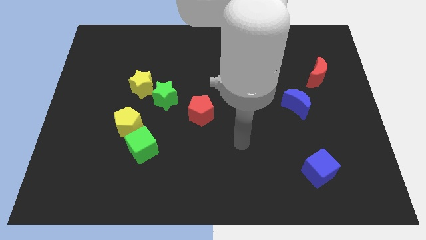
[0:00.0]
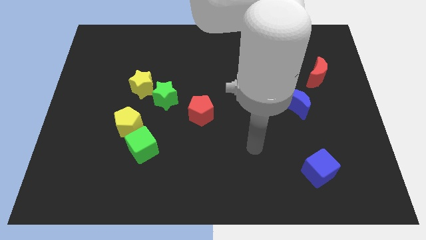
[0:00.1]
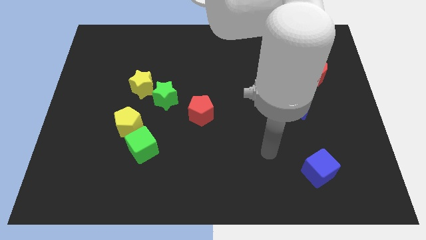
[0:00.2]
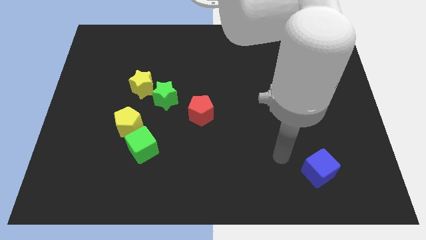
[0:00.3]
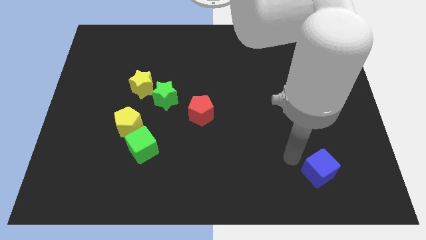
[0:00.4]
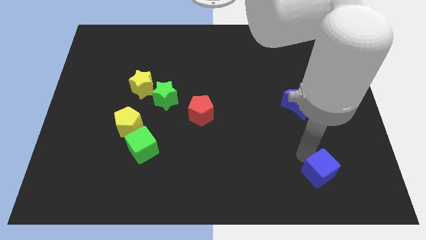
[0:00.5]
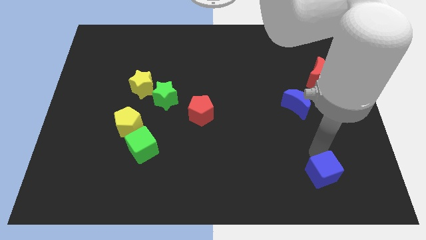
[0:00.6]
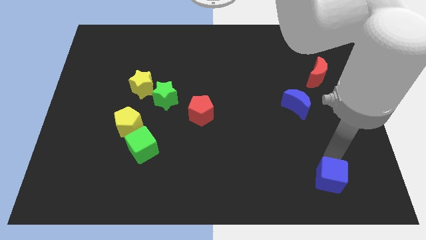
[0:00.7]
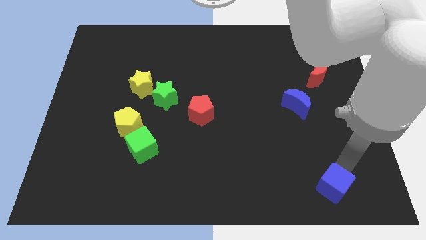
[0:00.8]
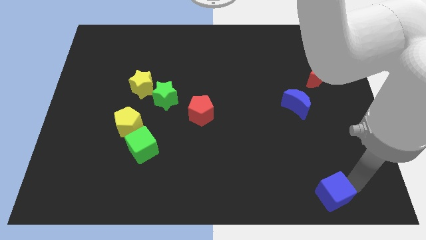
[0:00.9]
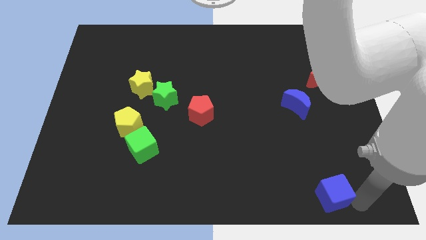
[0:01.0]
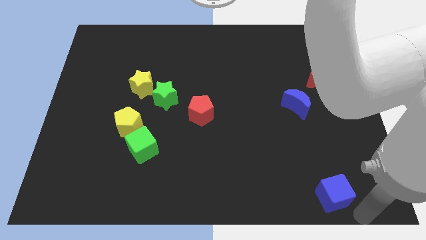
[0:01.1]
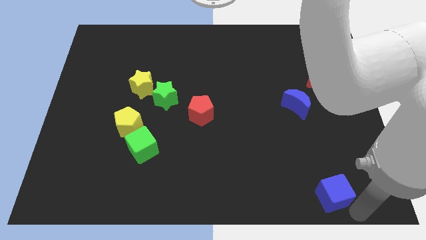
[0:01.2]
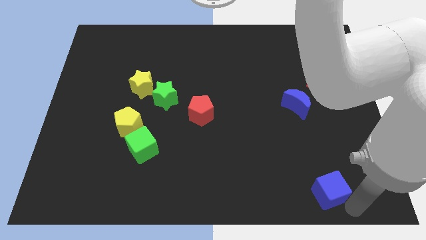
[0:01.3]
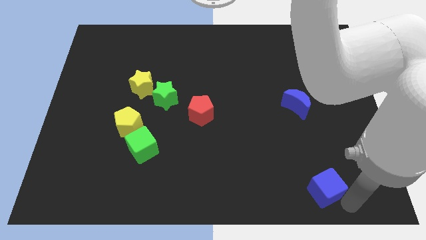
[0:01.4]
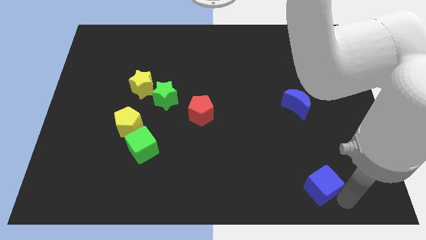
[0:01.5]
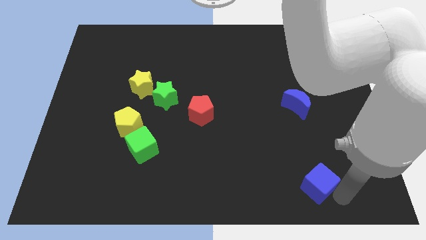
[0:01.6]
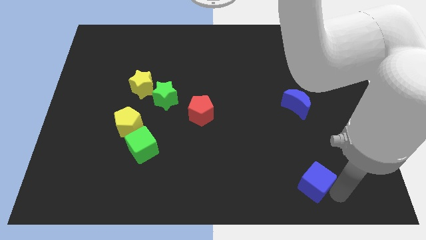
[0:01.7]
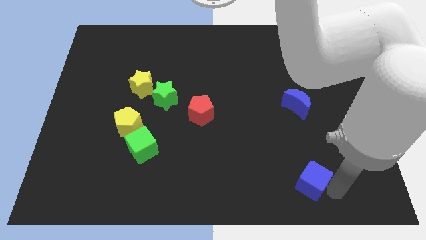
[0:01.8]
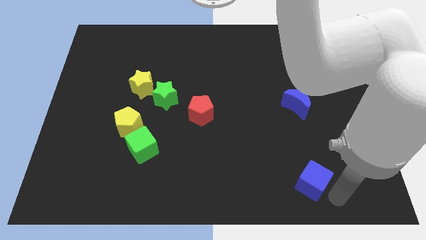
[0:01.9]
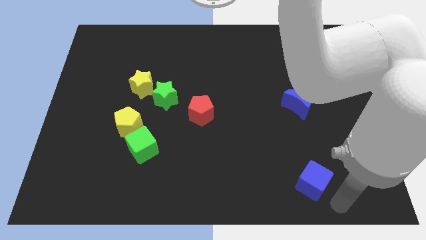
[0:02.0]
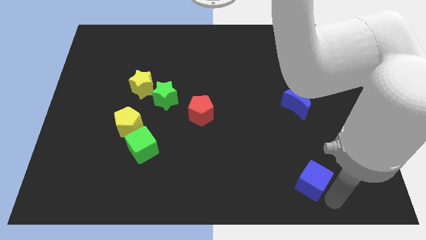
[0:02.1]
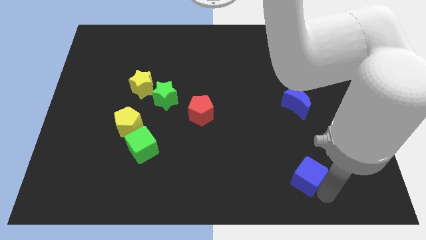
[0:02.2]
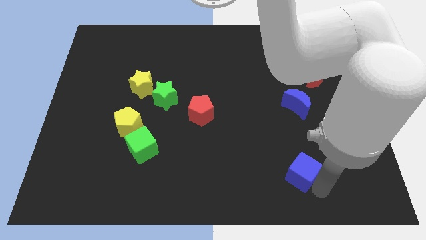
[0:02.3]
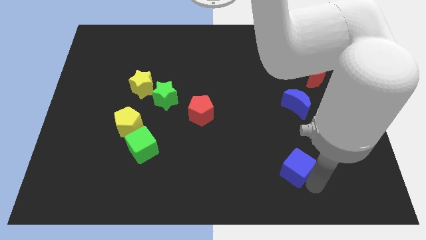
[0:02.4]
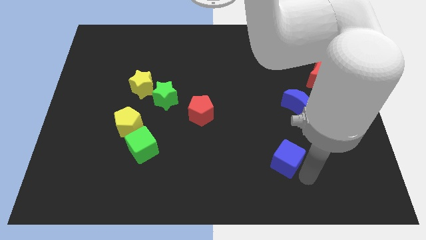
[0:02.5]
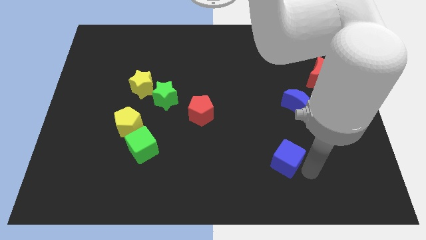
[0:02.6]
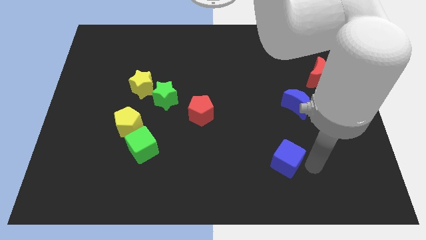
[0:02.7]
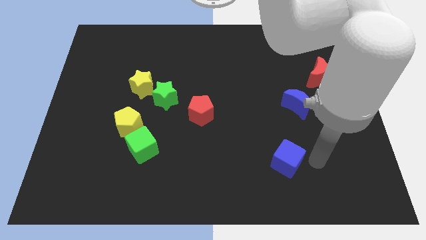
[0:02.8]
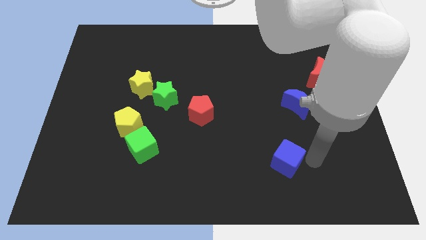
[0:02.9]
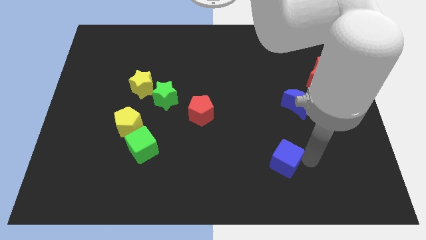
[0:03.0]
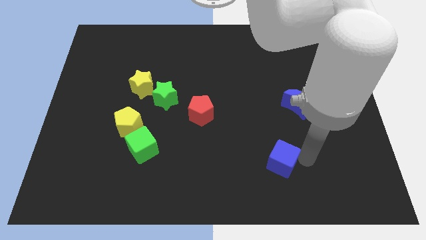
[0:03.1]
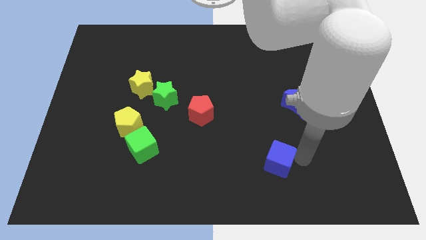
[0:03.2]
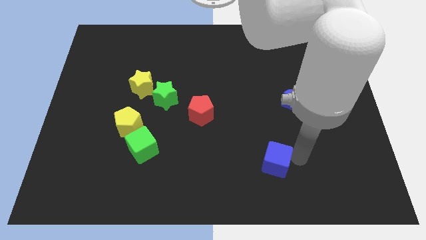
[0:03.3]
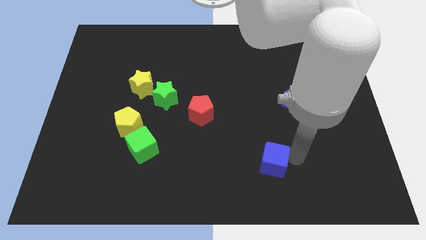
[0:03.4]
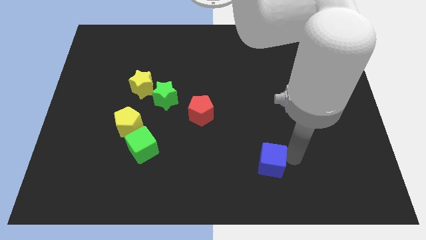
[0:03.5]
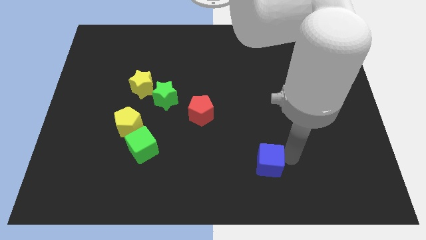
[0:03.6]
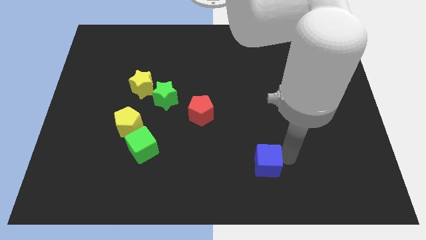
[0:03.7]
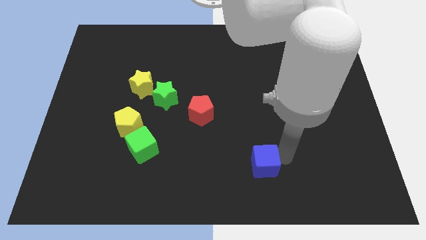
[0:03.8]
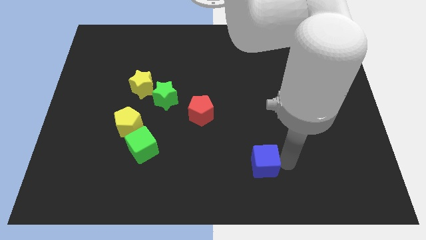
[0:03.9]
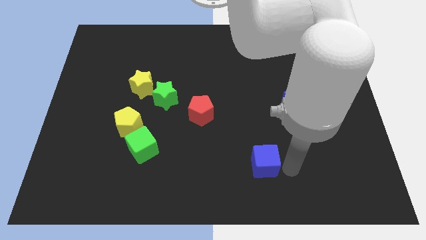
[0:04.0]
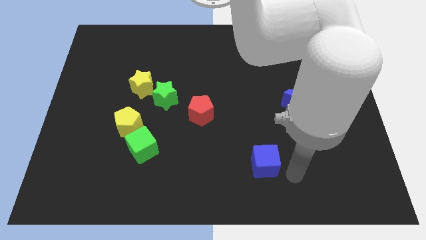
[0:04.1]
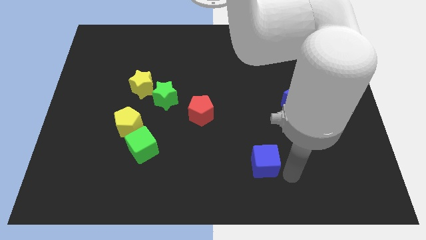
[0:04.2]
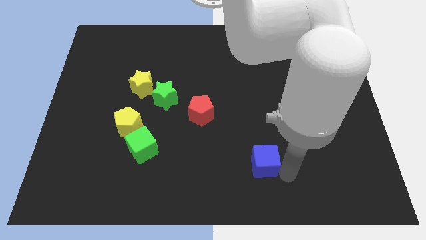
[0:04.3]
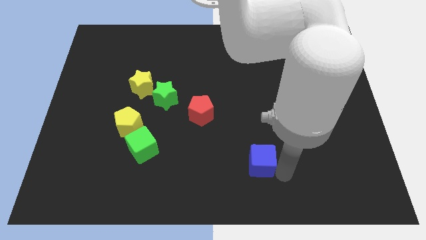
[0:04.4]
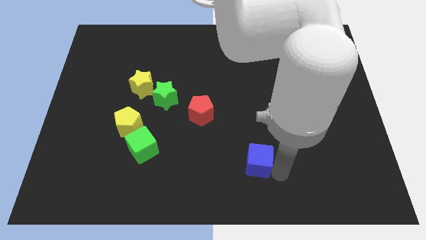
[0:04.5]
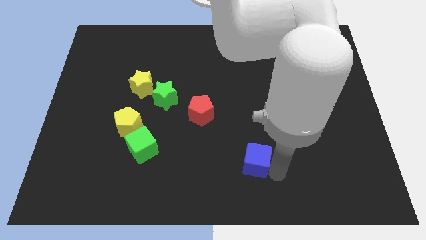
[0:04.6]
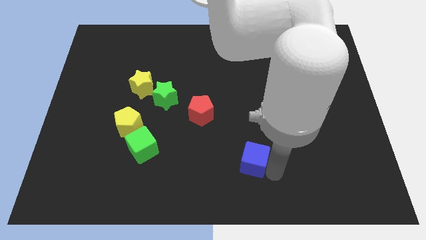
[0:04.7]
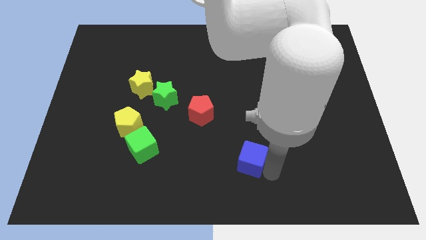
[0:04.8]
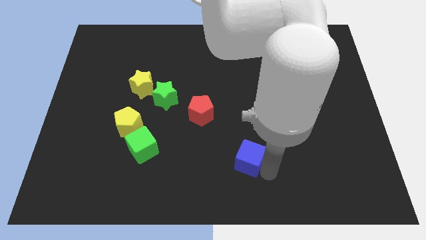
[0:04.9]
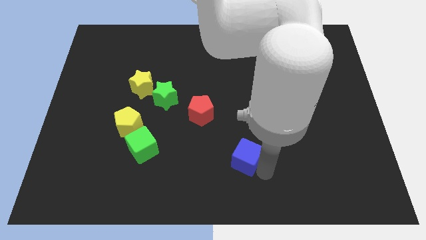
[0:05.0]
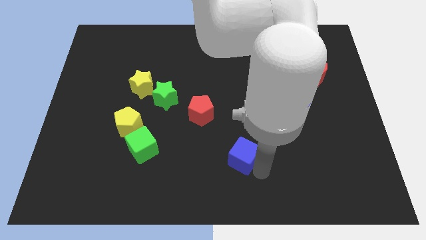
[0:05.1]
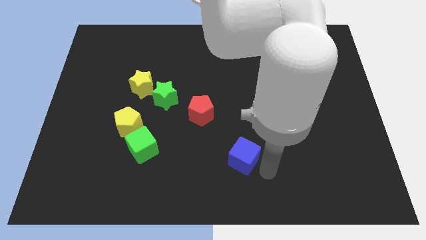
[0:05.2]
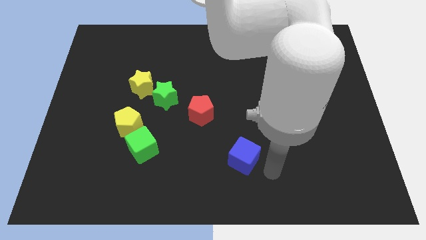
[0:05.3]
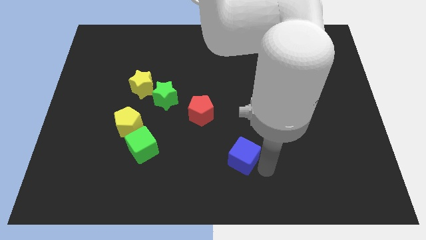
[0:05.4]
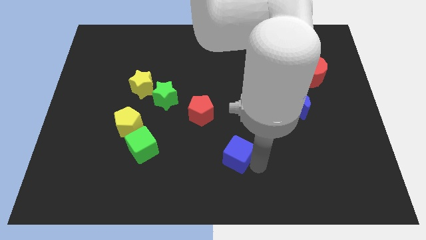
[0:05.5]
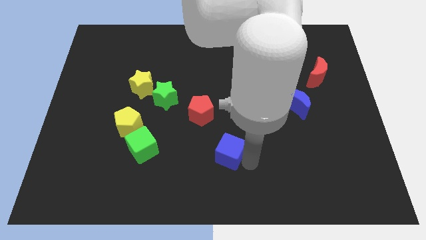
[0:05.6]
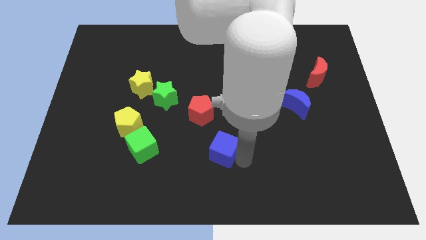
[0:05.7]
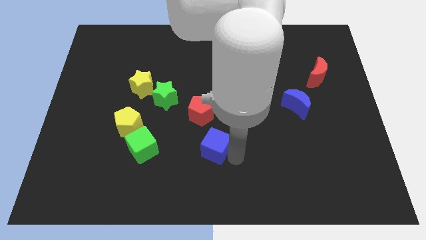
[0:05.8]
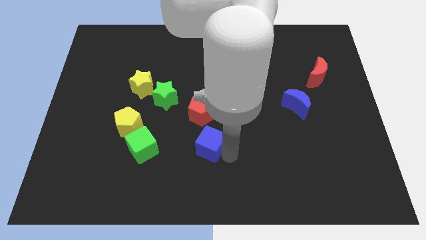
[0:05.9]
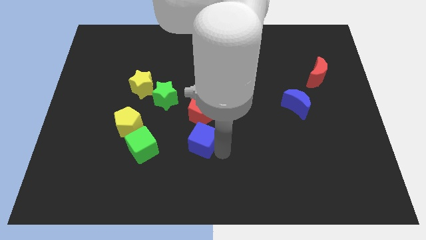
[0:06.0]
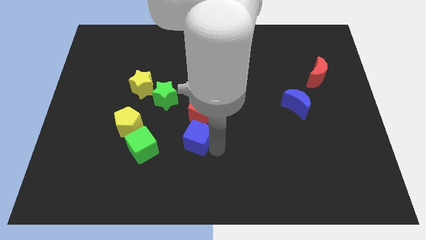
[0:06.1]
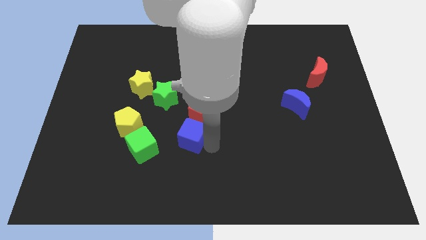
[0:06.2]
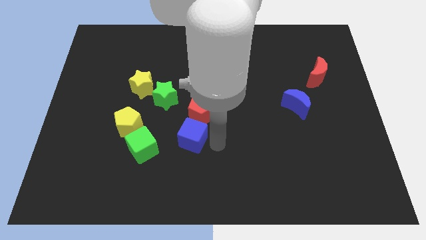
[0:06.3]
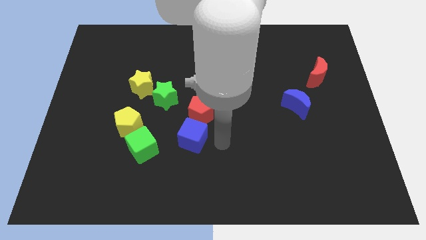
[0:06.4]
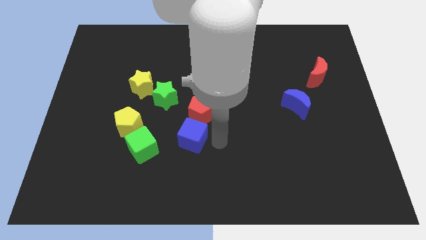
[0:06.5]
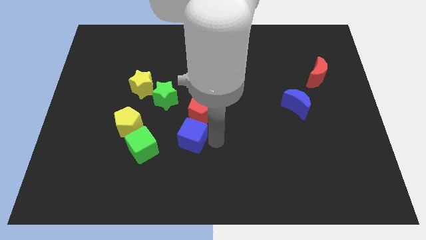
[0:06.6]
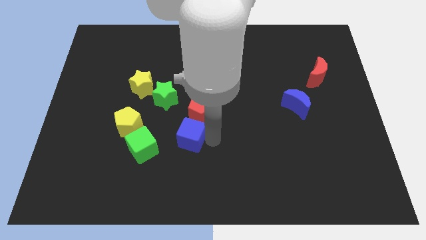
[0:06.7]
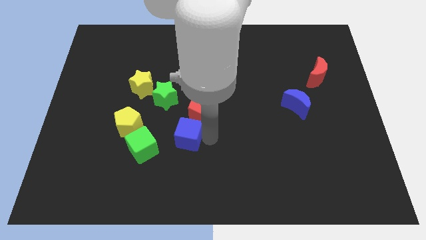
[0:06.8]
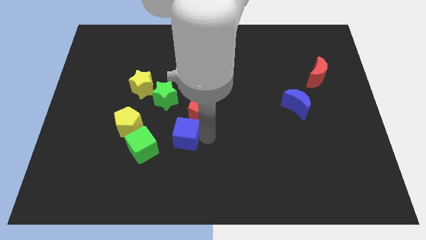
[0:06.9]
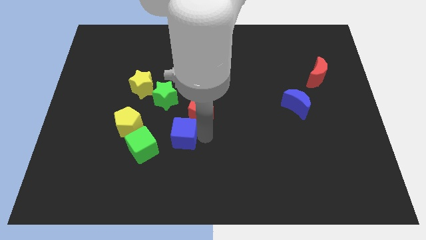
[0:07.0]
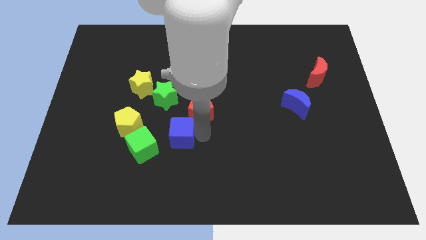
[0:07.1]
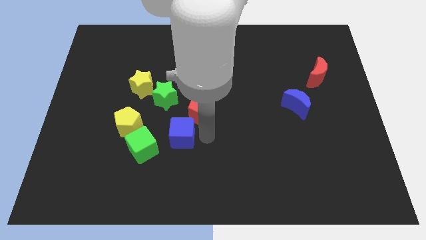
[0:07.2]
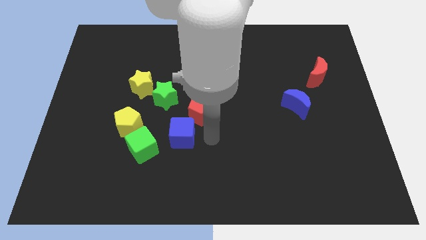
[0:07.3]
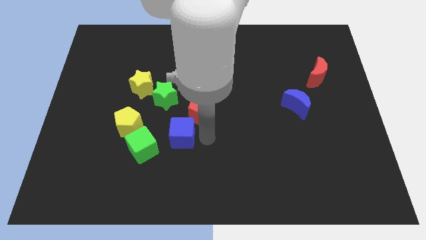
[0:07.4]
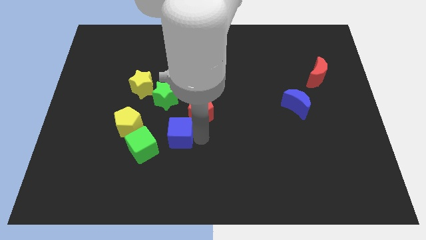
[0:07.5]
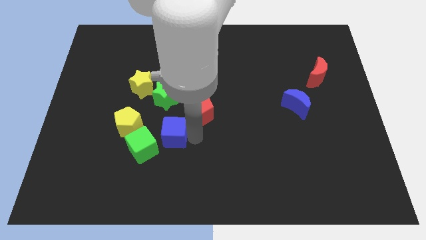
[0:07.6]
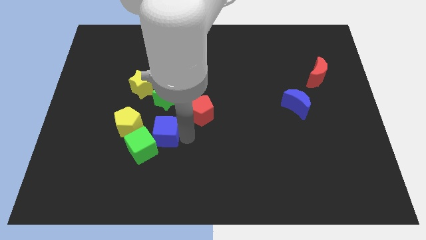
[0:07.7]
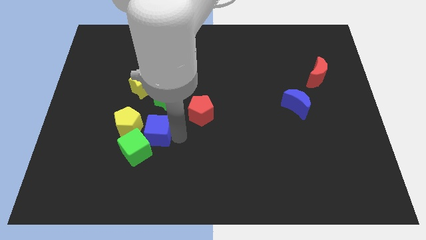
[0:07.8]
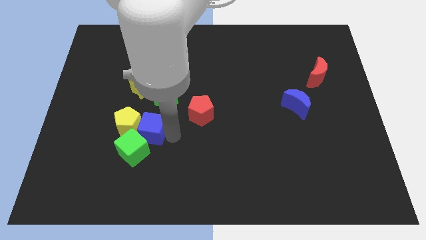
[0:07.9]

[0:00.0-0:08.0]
put the blue cube towards the yellow pentagon
